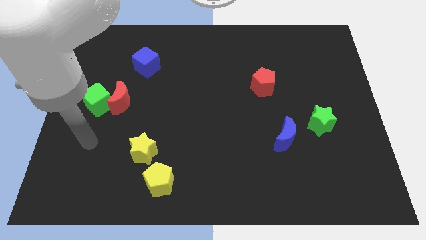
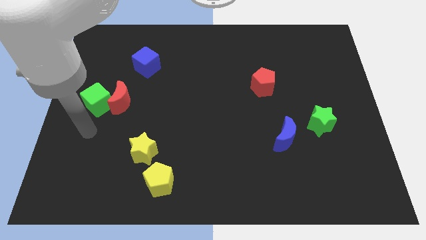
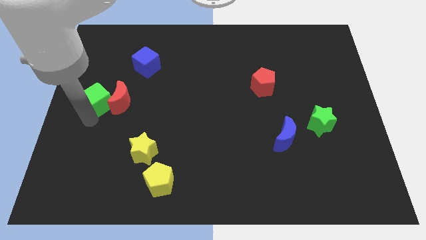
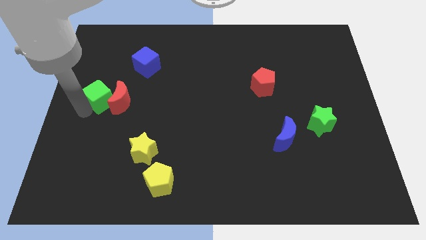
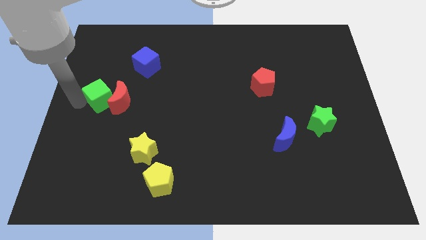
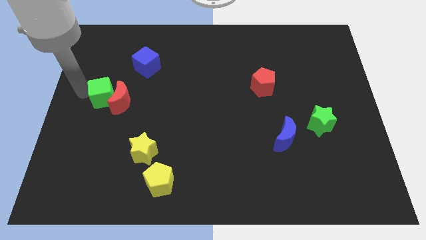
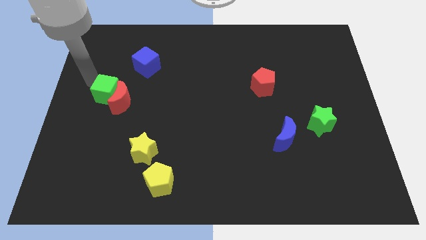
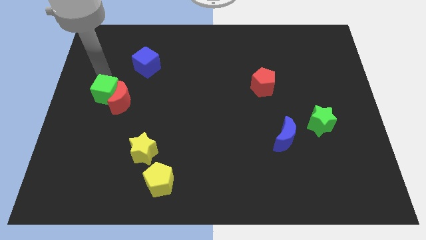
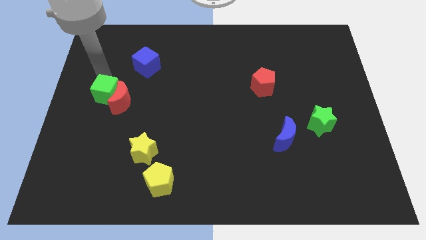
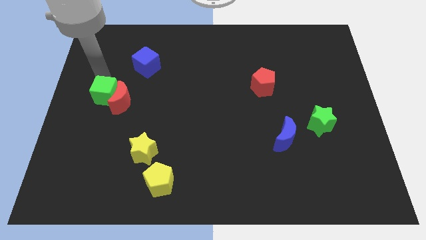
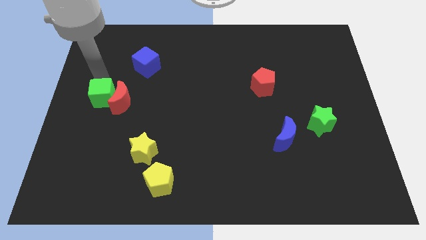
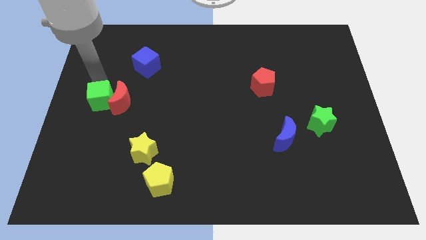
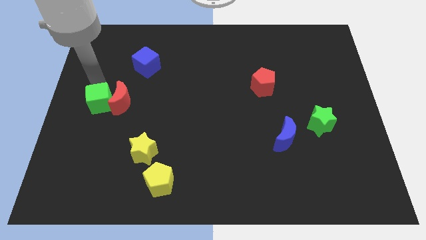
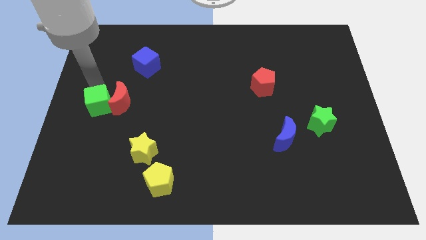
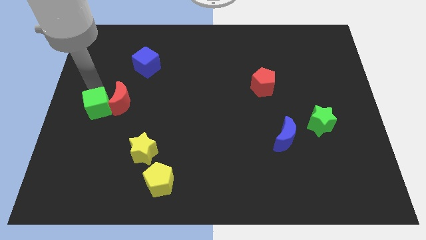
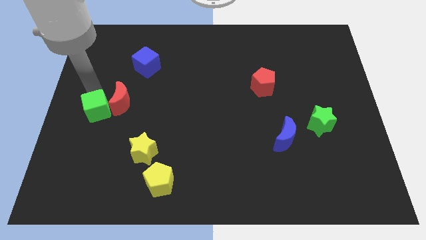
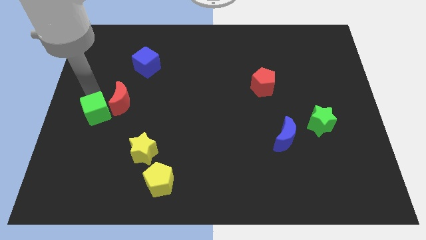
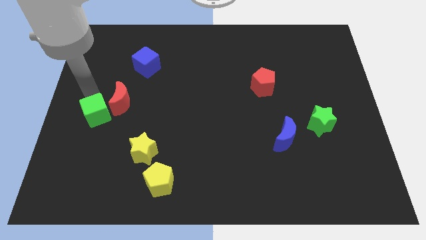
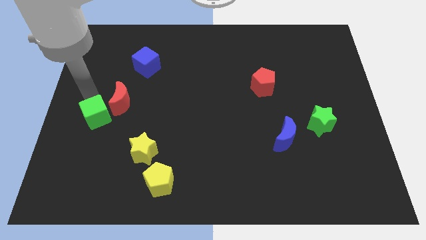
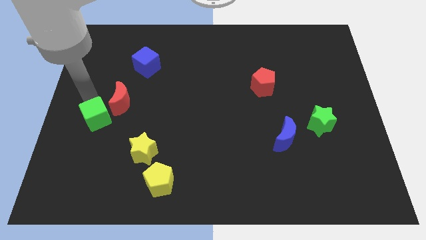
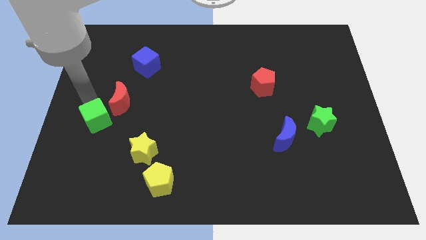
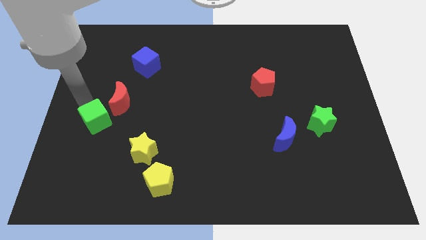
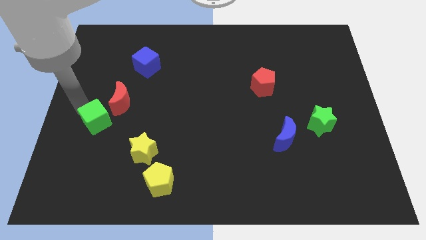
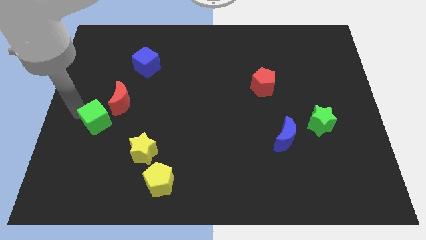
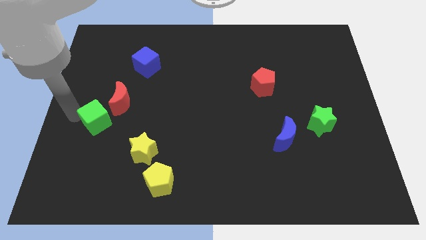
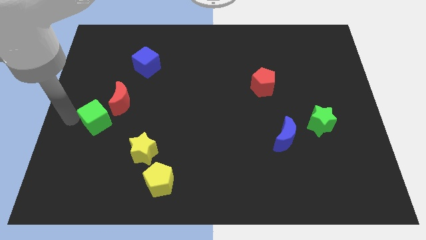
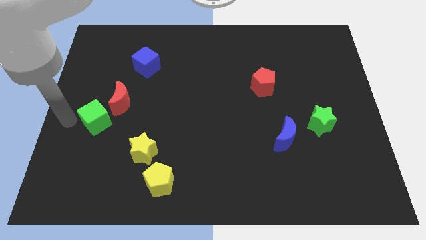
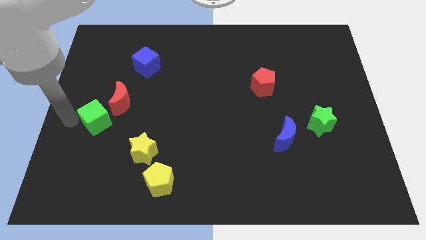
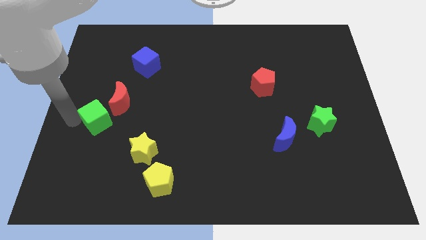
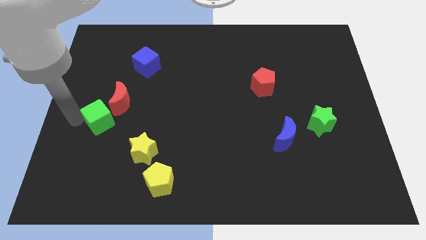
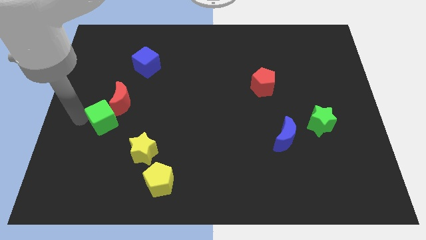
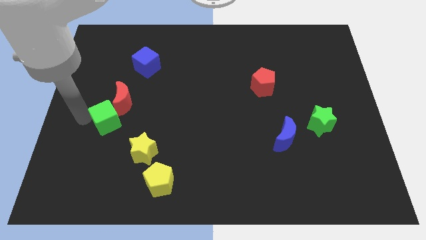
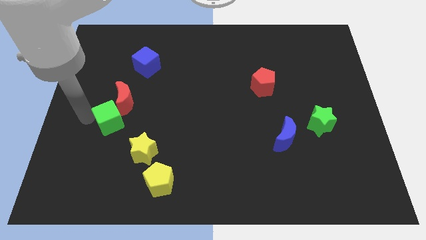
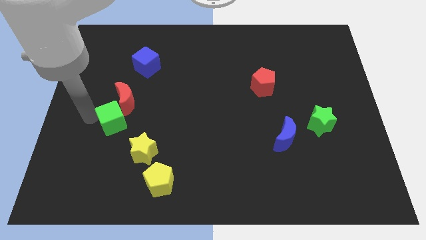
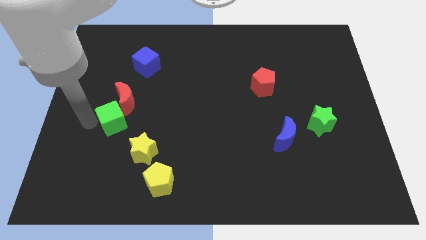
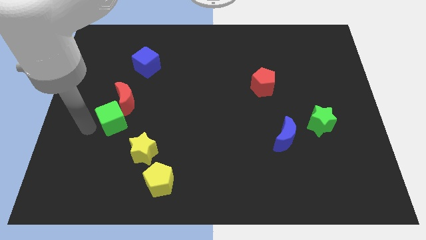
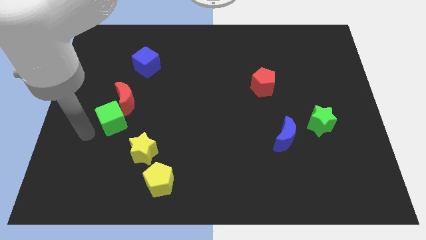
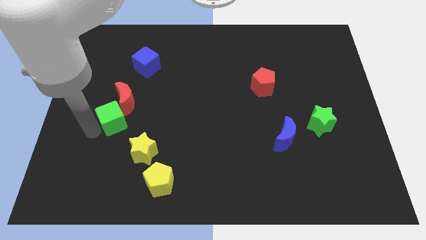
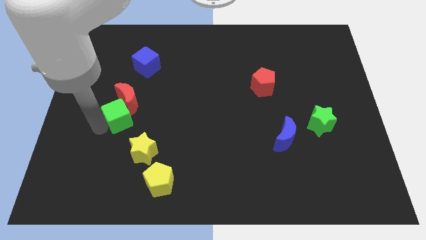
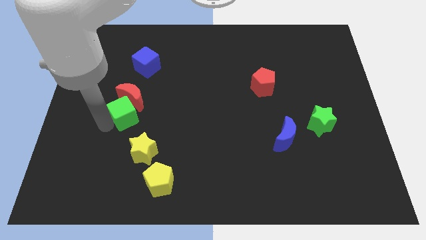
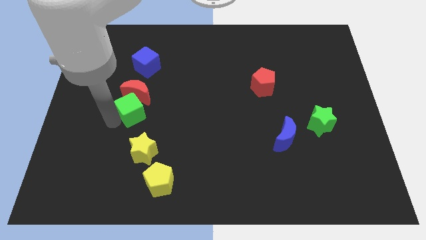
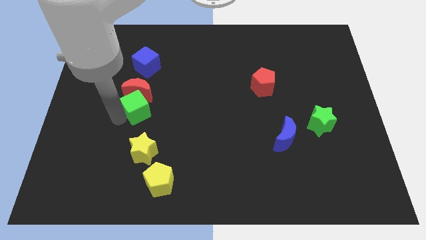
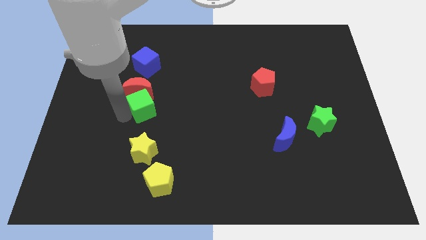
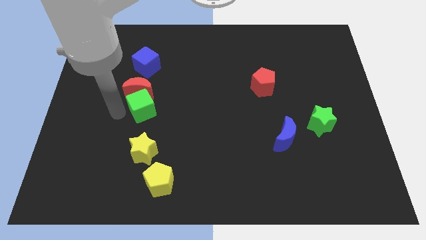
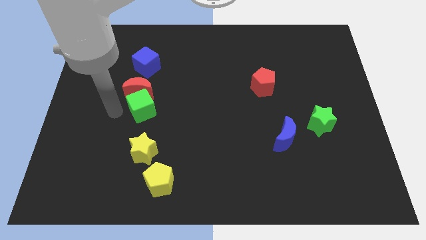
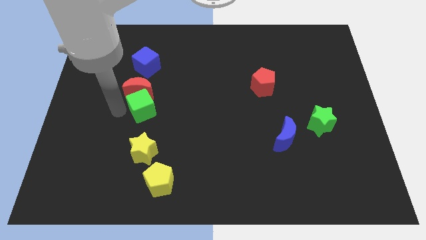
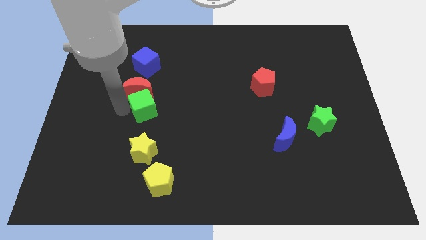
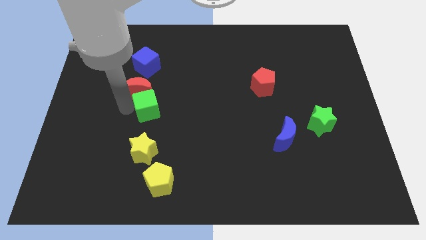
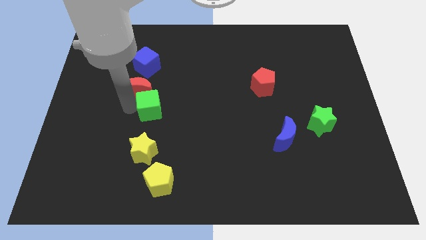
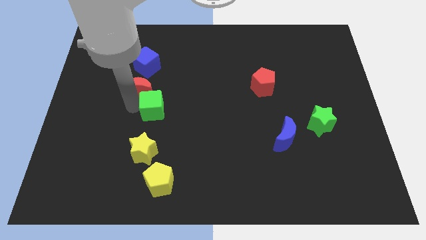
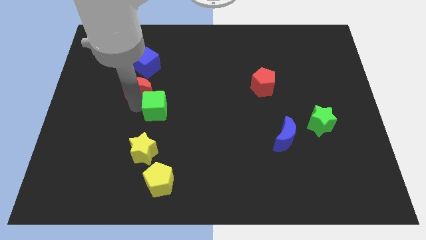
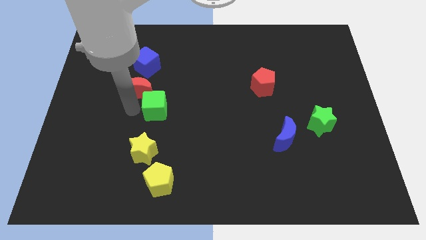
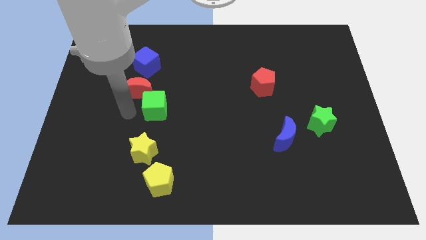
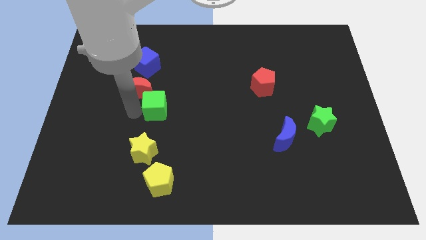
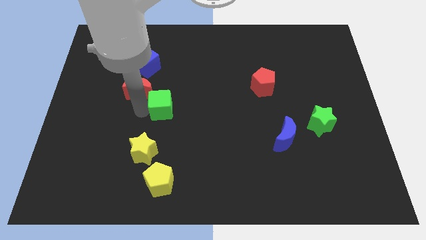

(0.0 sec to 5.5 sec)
push the green cube to the middle of the board
